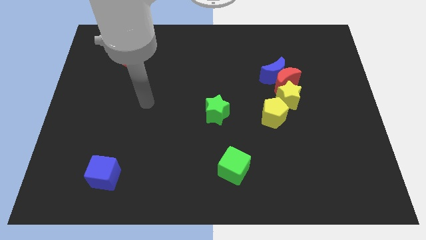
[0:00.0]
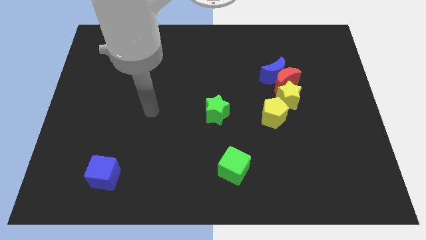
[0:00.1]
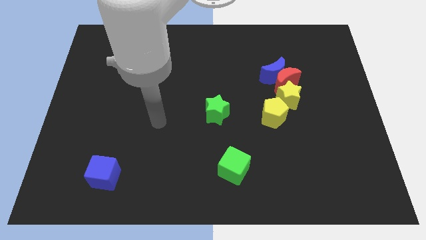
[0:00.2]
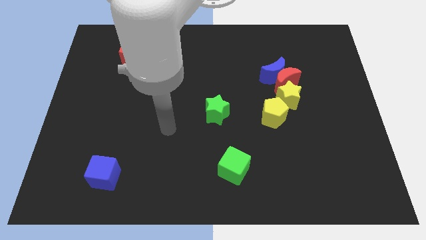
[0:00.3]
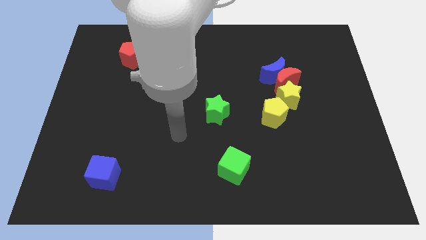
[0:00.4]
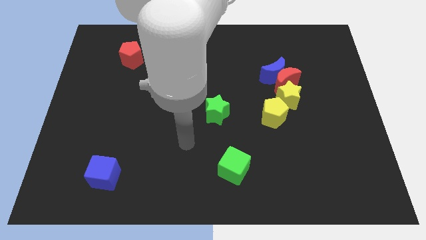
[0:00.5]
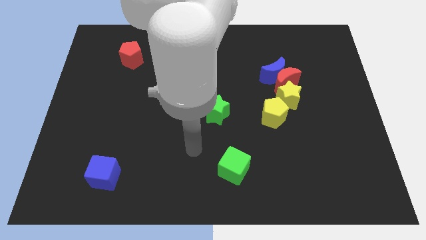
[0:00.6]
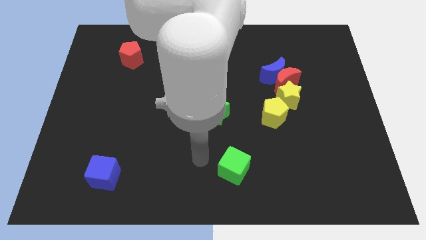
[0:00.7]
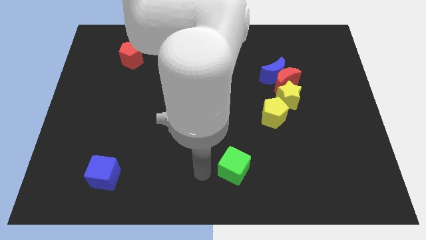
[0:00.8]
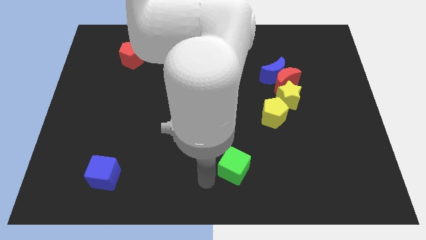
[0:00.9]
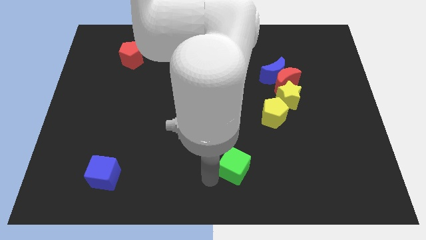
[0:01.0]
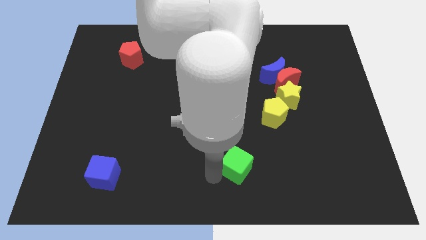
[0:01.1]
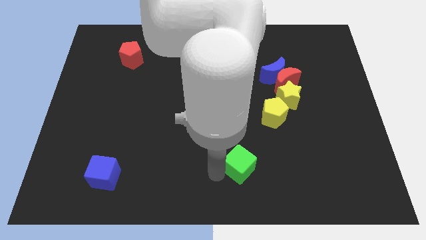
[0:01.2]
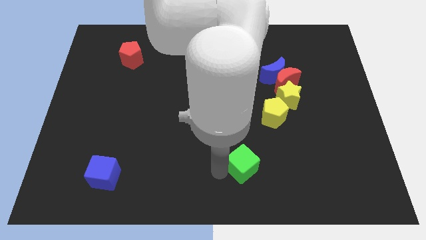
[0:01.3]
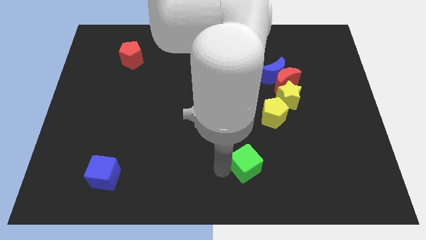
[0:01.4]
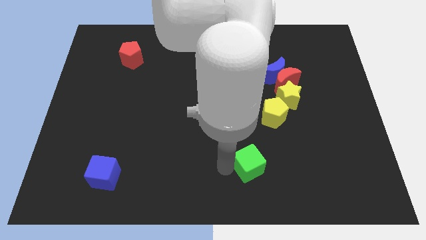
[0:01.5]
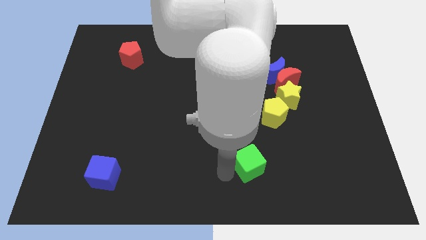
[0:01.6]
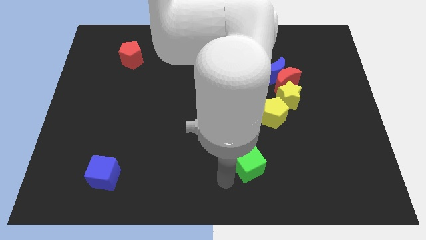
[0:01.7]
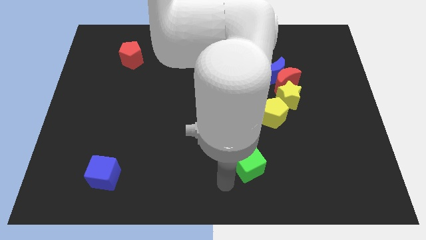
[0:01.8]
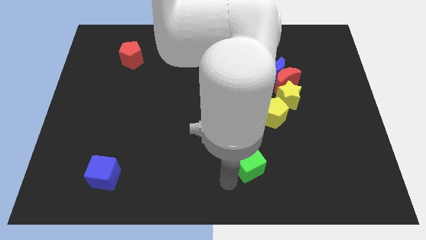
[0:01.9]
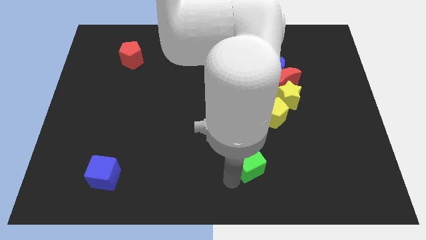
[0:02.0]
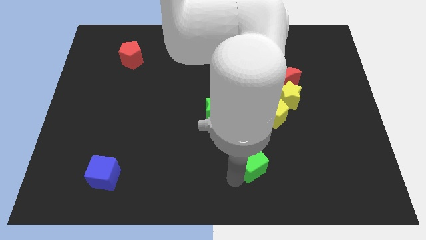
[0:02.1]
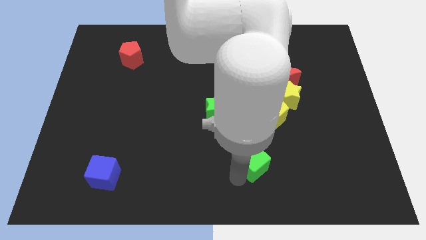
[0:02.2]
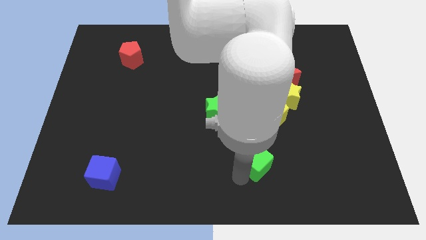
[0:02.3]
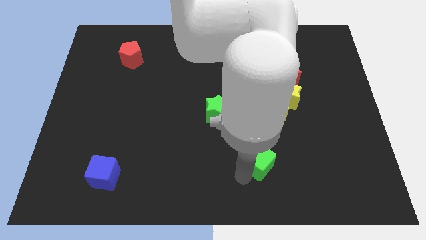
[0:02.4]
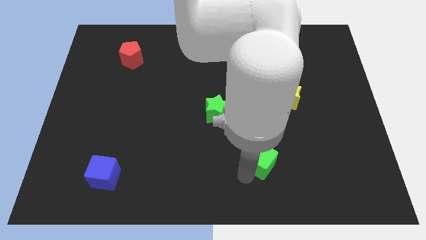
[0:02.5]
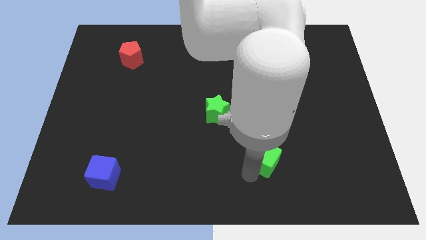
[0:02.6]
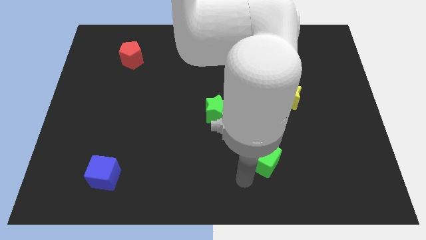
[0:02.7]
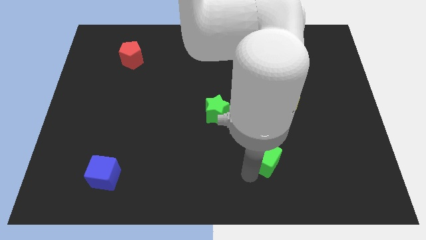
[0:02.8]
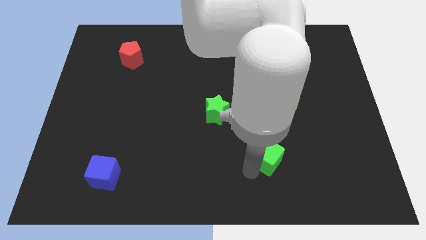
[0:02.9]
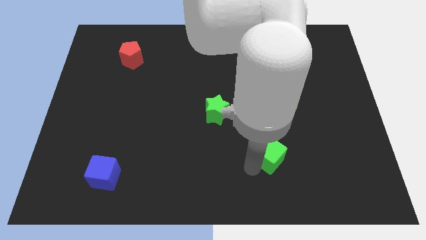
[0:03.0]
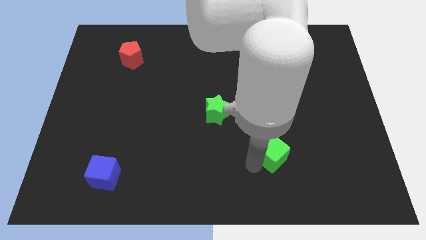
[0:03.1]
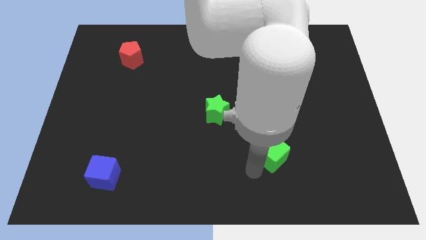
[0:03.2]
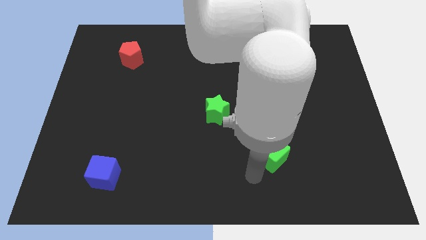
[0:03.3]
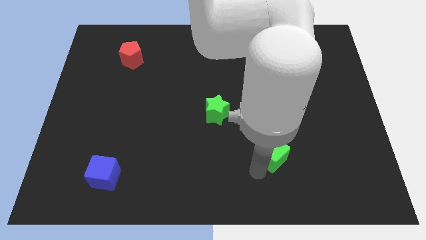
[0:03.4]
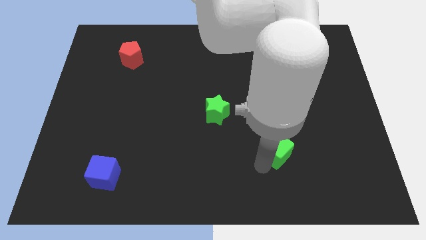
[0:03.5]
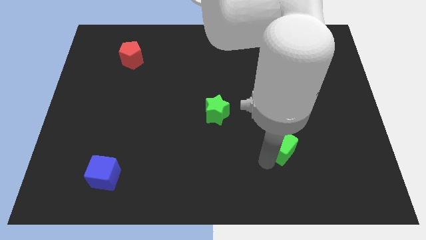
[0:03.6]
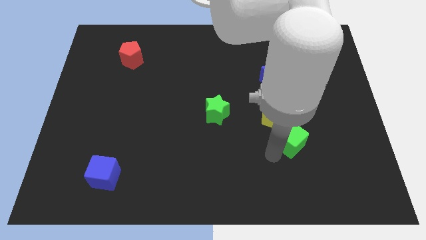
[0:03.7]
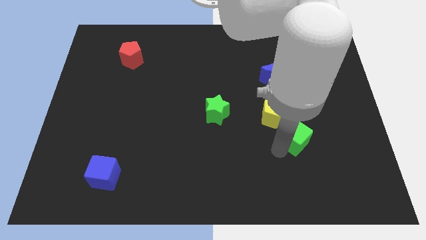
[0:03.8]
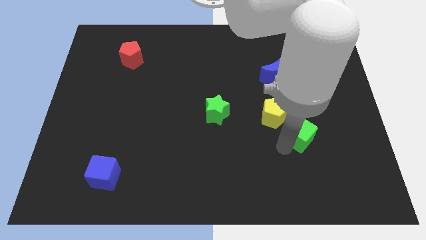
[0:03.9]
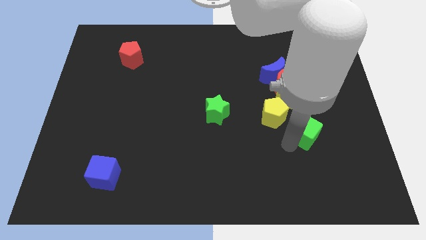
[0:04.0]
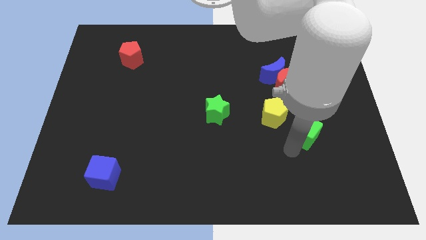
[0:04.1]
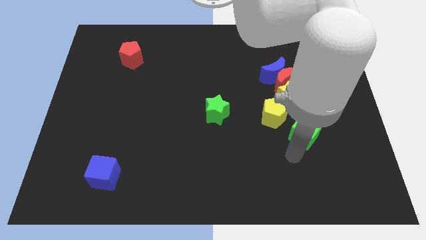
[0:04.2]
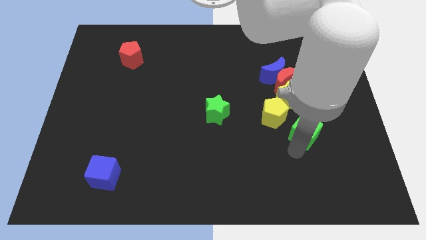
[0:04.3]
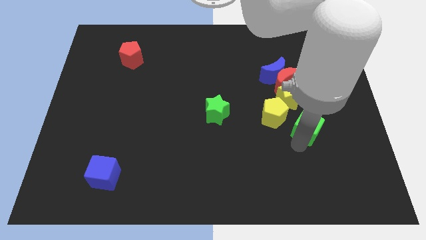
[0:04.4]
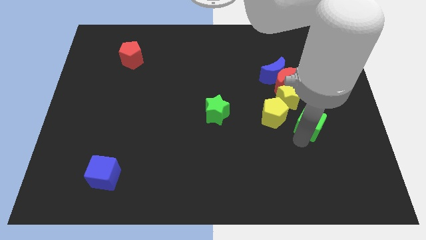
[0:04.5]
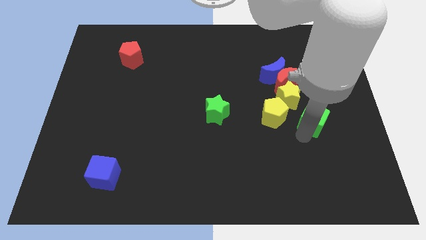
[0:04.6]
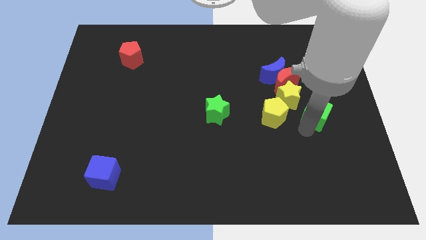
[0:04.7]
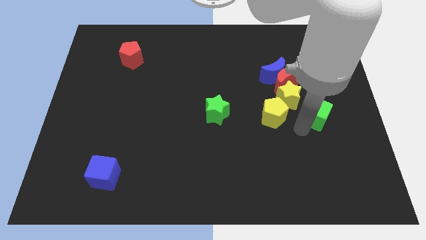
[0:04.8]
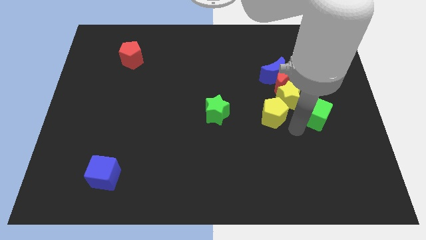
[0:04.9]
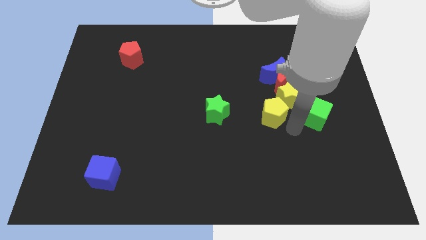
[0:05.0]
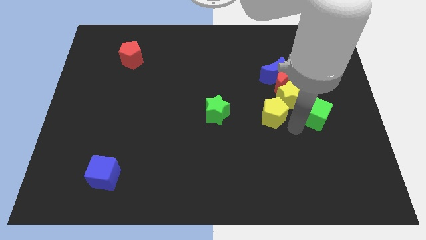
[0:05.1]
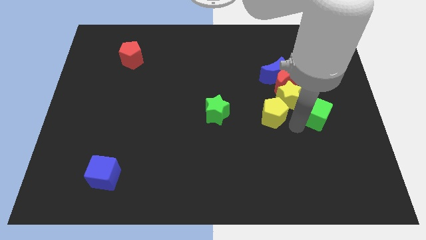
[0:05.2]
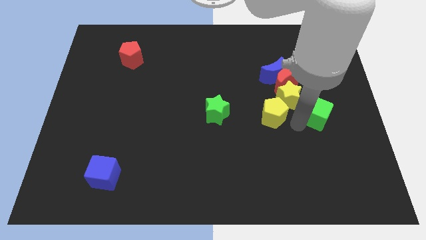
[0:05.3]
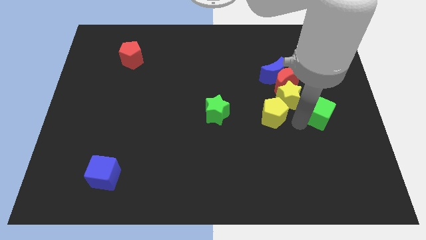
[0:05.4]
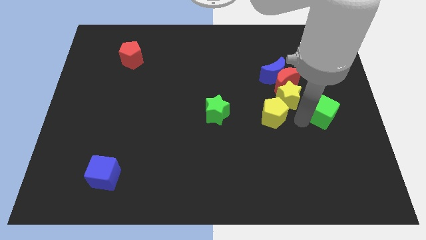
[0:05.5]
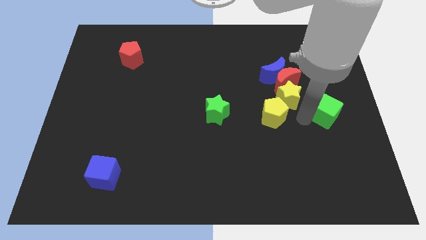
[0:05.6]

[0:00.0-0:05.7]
slide the green cube to the right side of the board

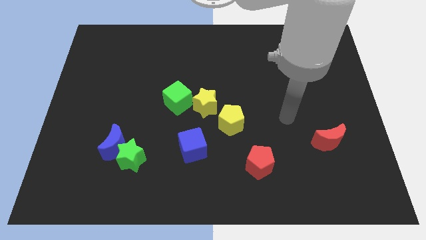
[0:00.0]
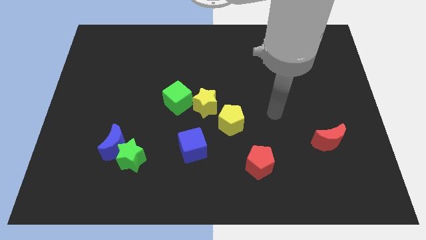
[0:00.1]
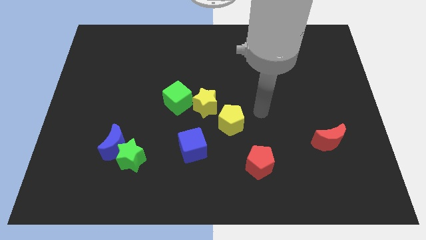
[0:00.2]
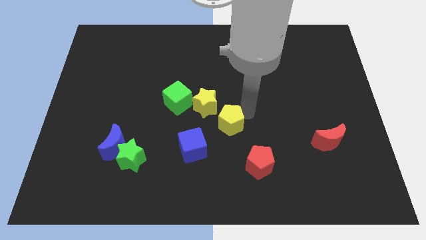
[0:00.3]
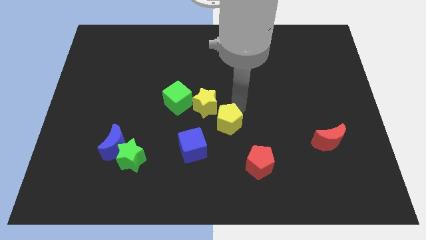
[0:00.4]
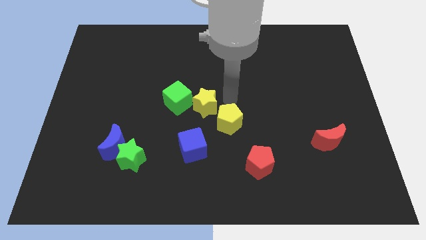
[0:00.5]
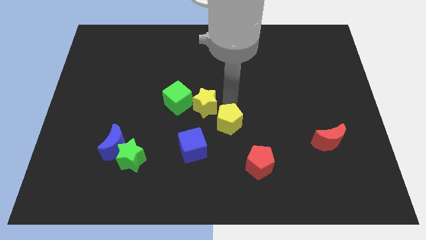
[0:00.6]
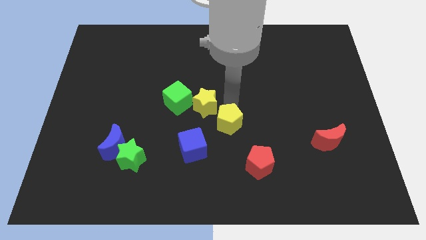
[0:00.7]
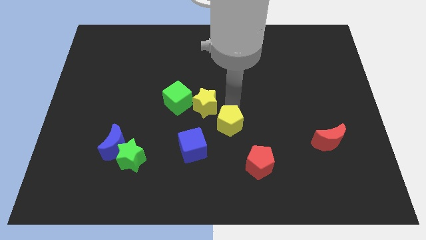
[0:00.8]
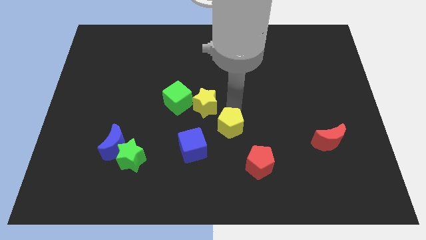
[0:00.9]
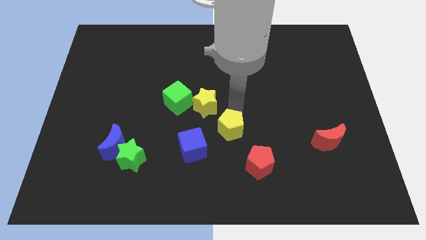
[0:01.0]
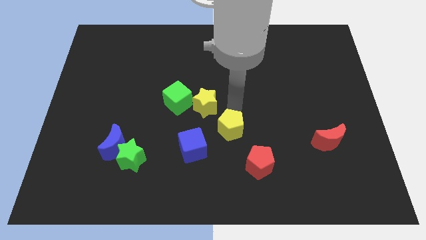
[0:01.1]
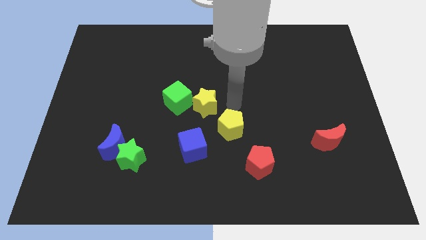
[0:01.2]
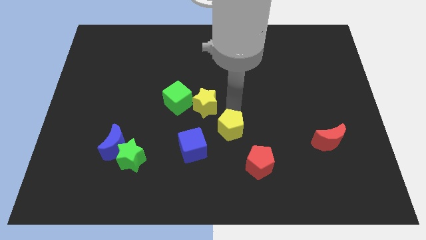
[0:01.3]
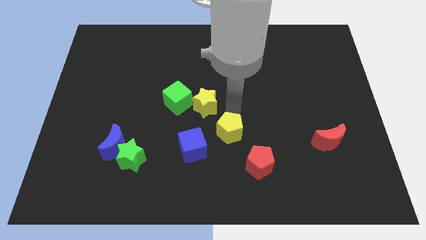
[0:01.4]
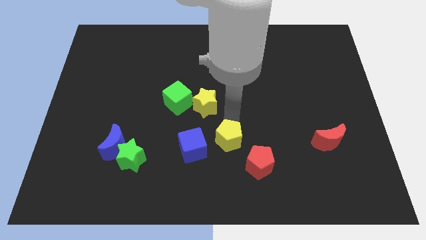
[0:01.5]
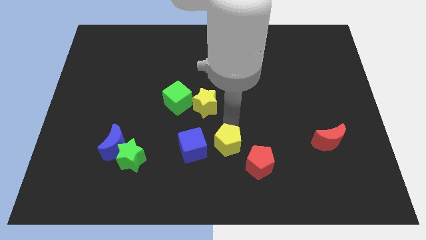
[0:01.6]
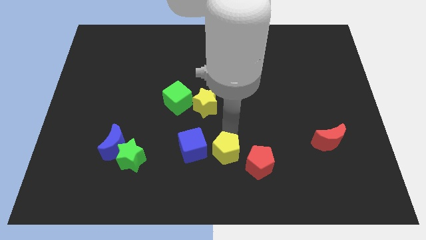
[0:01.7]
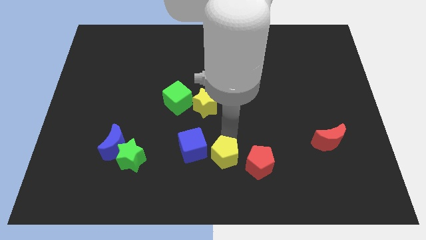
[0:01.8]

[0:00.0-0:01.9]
put the yellow pentagon to the bottom
